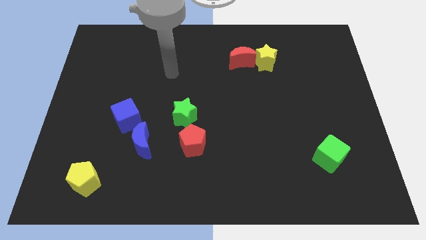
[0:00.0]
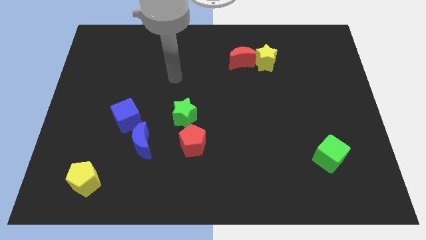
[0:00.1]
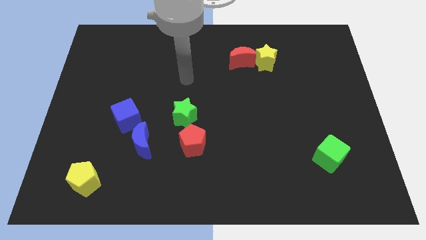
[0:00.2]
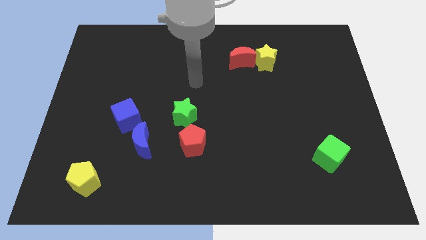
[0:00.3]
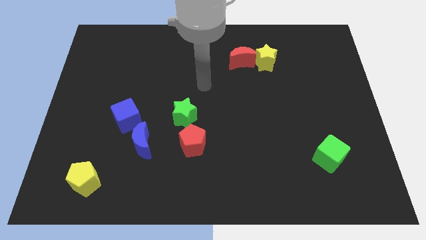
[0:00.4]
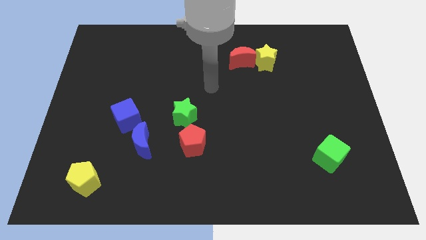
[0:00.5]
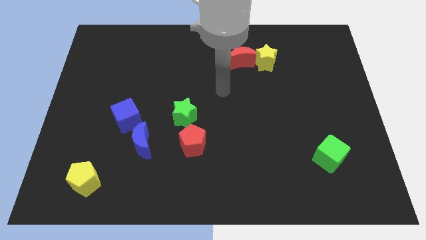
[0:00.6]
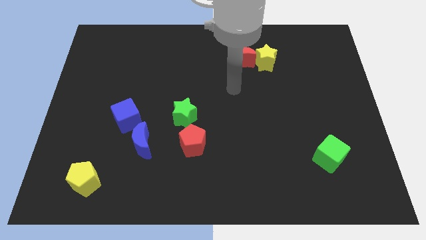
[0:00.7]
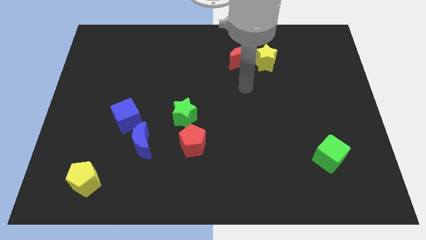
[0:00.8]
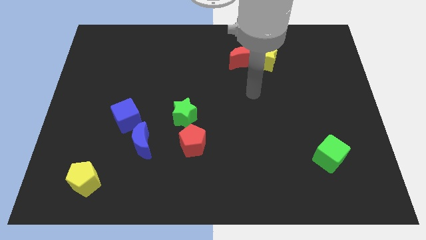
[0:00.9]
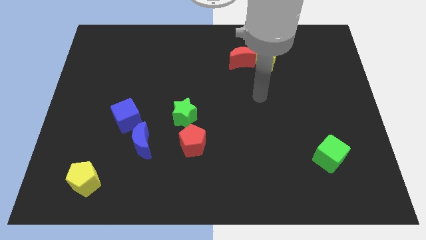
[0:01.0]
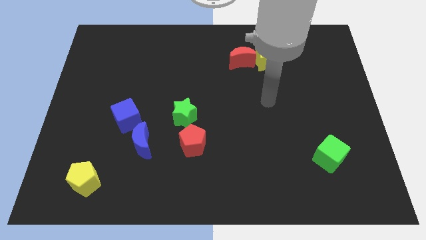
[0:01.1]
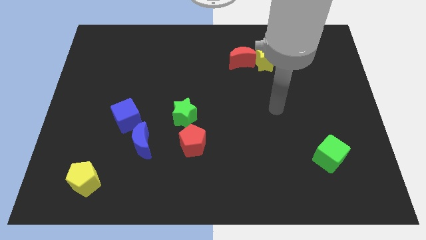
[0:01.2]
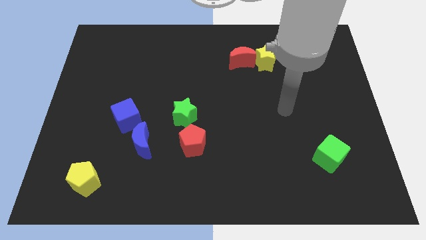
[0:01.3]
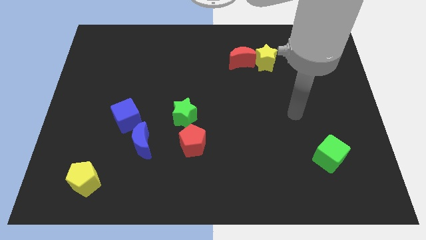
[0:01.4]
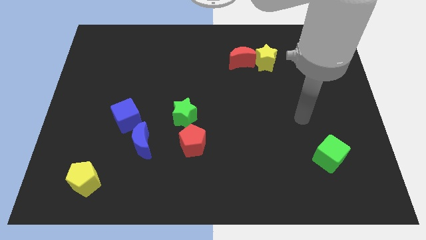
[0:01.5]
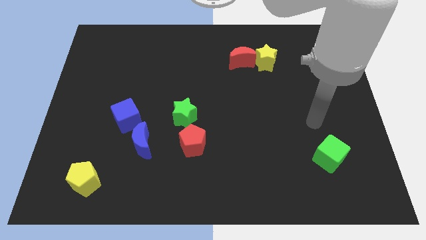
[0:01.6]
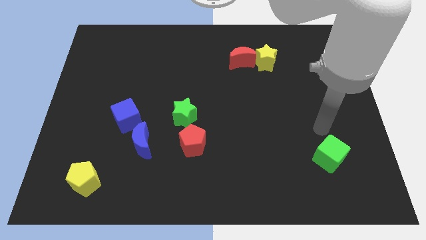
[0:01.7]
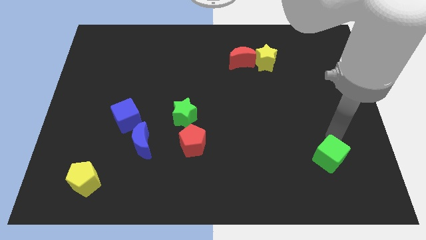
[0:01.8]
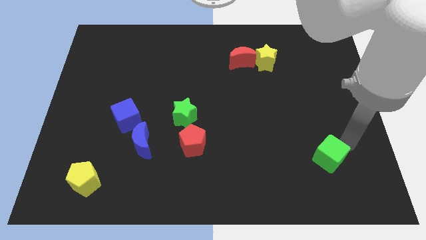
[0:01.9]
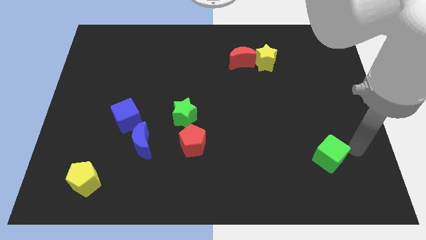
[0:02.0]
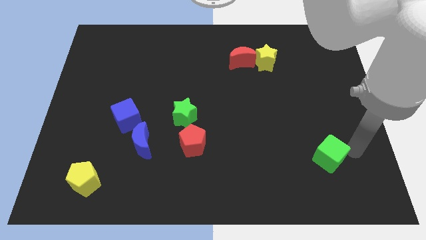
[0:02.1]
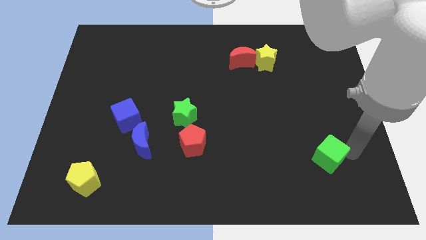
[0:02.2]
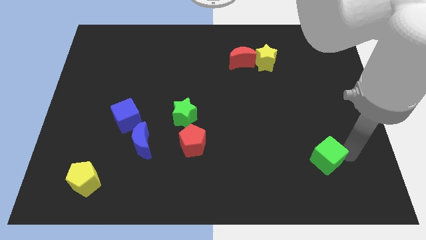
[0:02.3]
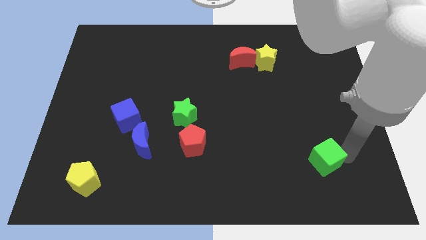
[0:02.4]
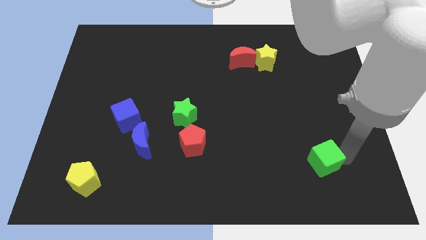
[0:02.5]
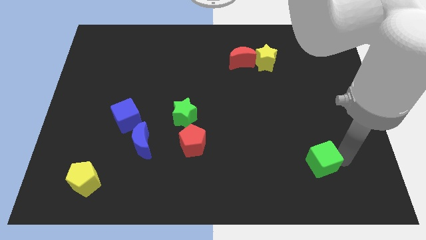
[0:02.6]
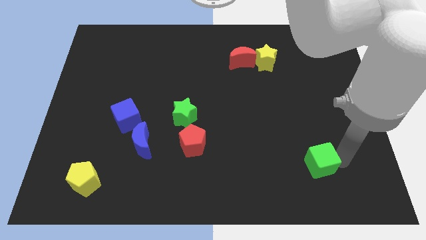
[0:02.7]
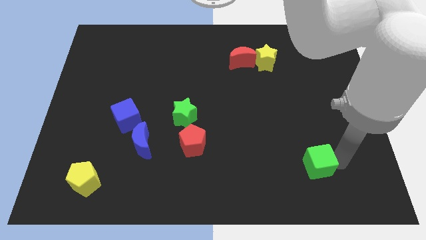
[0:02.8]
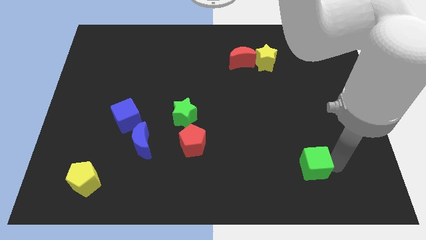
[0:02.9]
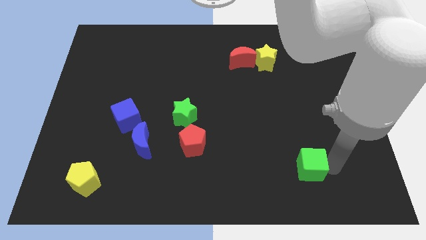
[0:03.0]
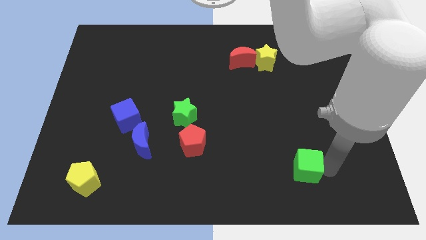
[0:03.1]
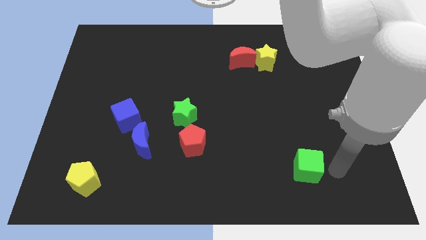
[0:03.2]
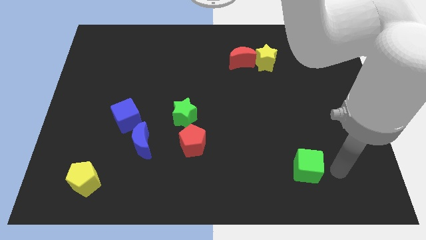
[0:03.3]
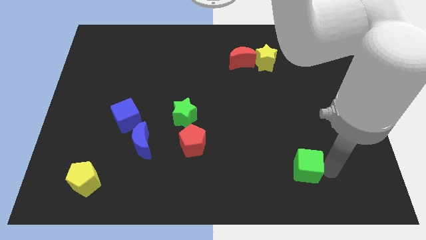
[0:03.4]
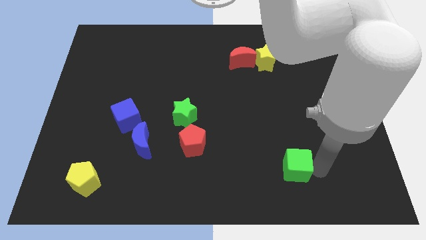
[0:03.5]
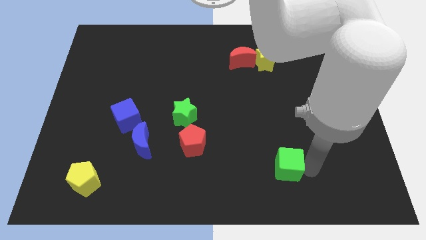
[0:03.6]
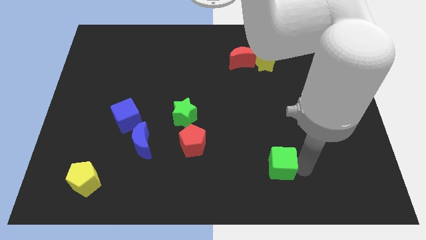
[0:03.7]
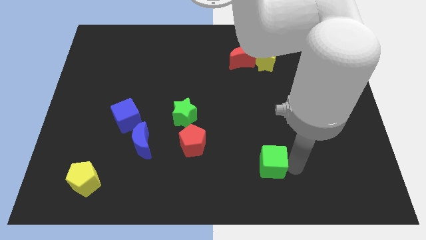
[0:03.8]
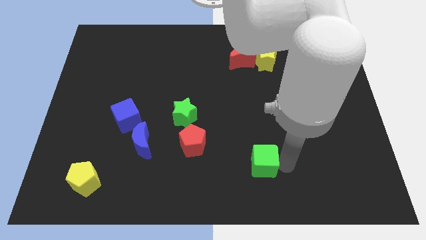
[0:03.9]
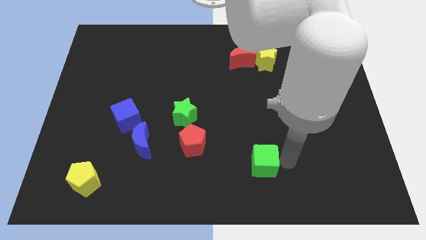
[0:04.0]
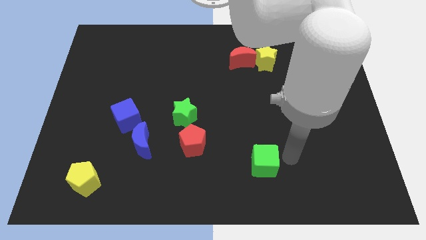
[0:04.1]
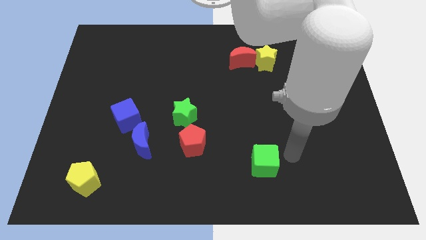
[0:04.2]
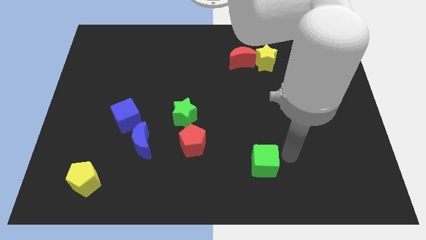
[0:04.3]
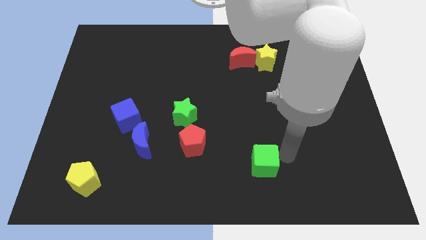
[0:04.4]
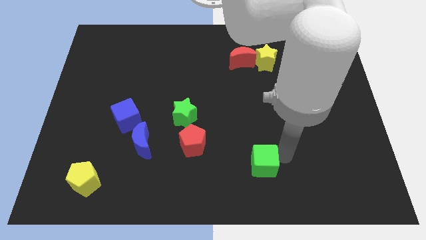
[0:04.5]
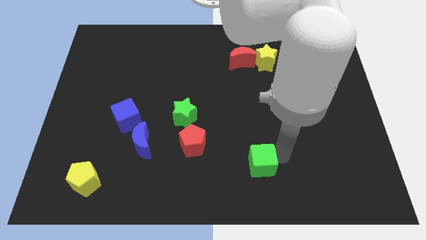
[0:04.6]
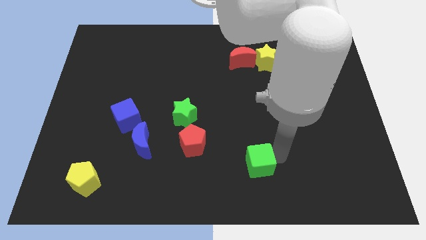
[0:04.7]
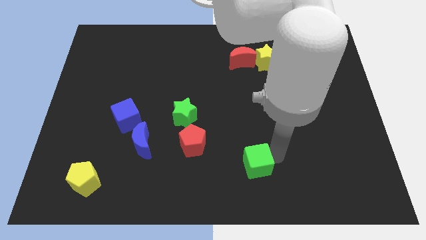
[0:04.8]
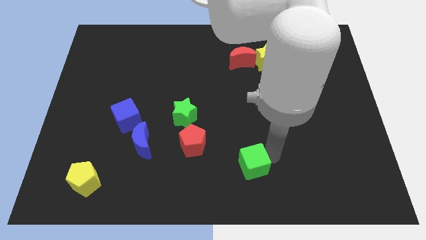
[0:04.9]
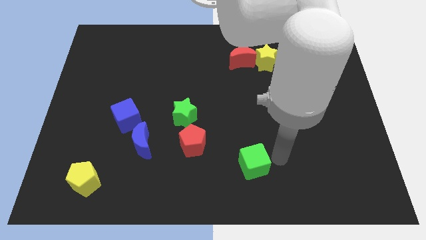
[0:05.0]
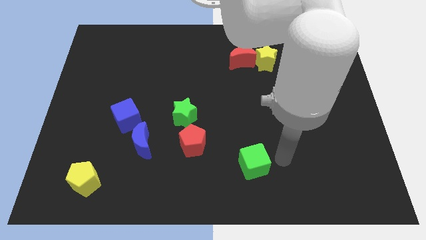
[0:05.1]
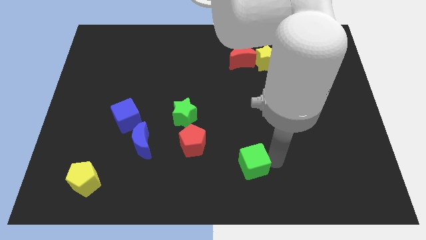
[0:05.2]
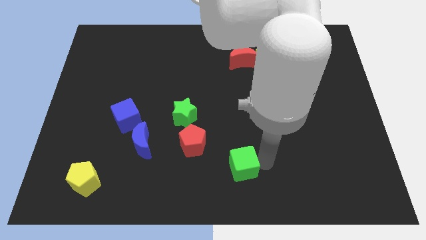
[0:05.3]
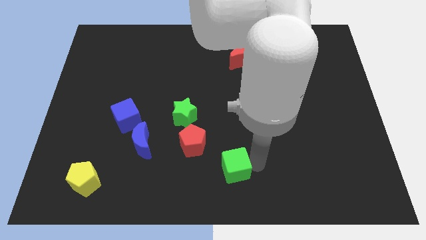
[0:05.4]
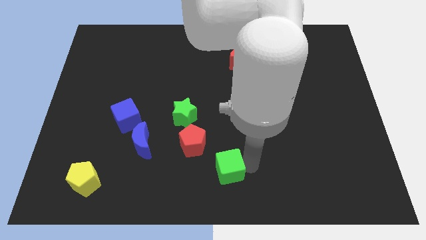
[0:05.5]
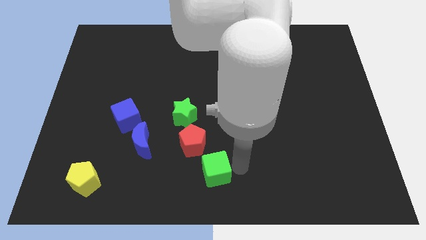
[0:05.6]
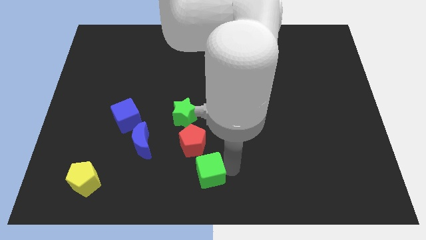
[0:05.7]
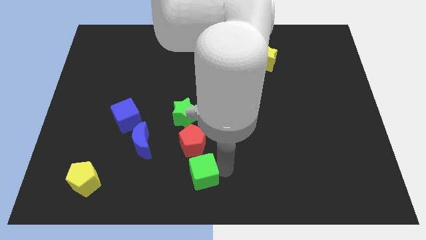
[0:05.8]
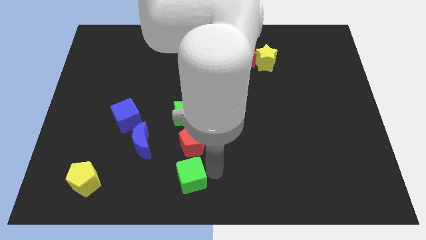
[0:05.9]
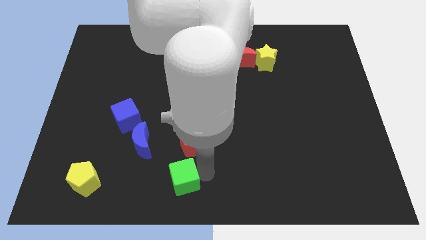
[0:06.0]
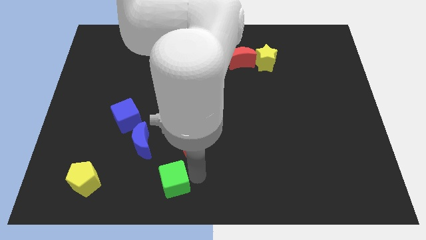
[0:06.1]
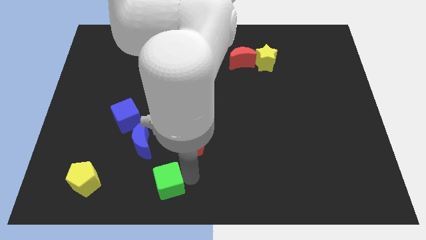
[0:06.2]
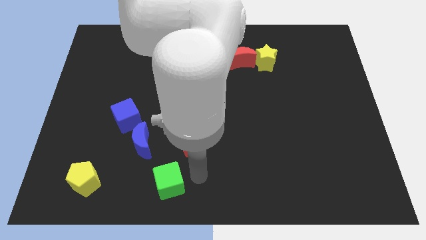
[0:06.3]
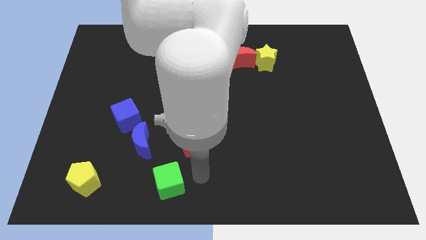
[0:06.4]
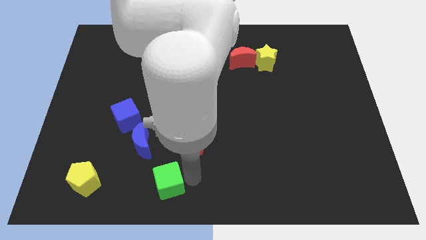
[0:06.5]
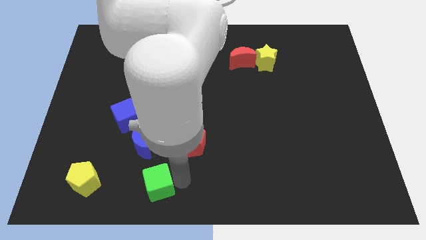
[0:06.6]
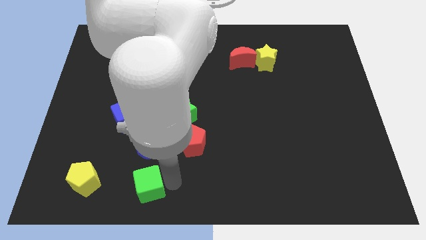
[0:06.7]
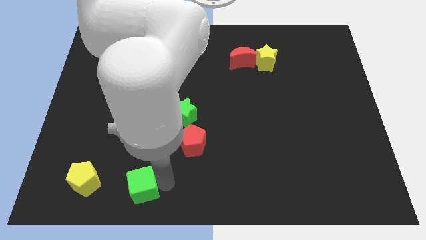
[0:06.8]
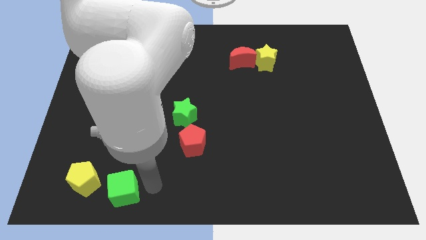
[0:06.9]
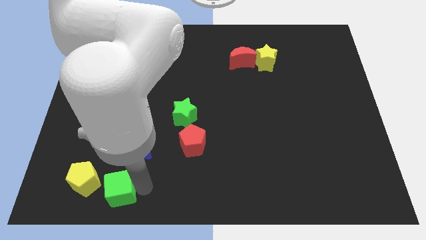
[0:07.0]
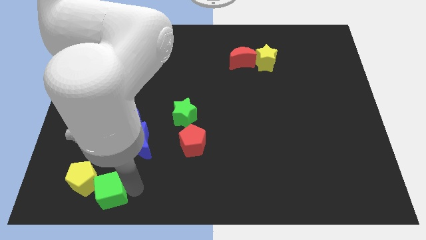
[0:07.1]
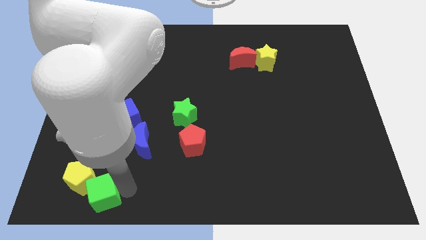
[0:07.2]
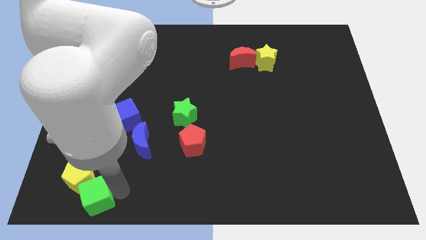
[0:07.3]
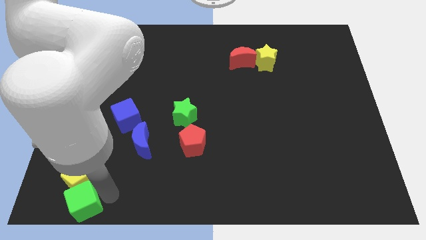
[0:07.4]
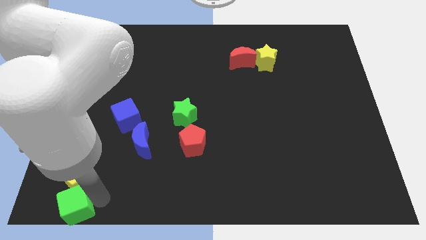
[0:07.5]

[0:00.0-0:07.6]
move the green cube to the bottom left
